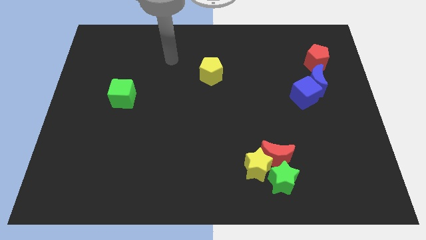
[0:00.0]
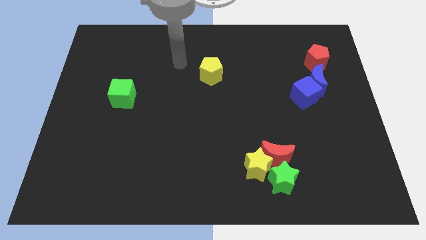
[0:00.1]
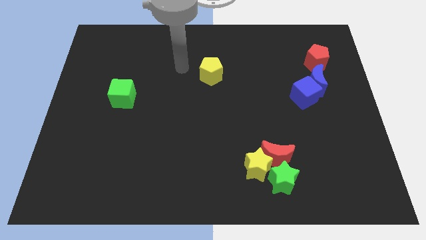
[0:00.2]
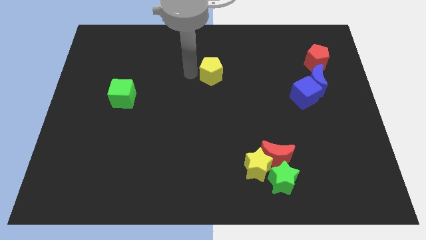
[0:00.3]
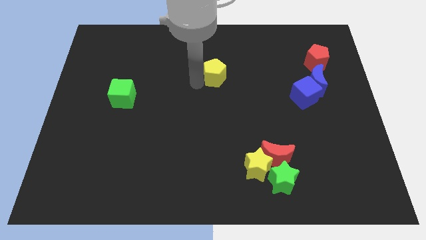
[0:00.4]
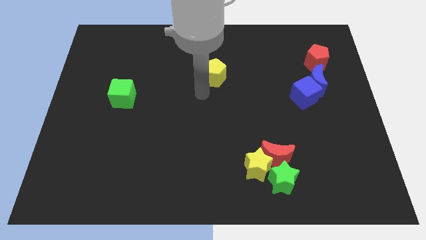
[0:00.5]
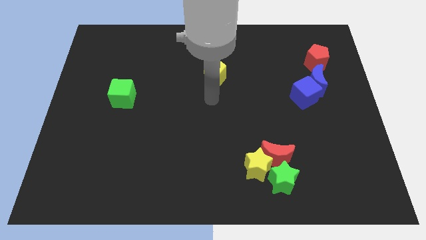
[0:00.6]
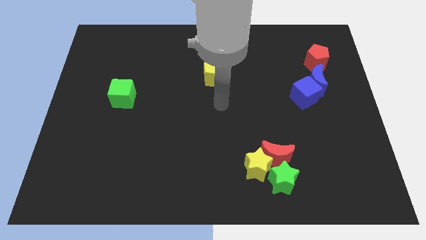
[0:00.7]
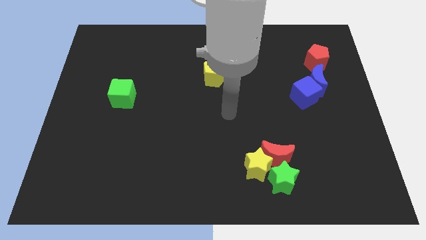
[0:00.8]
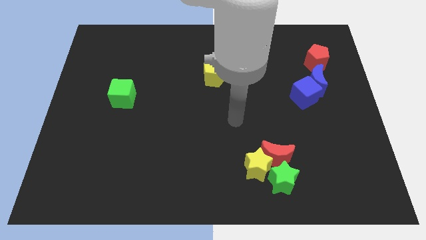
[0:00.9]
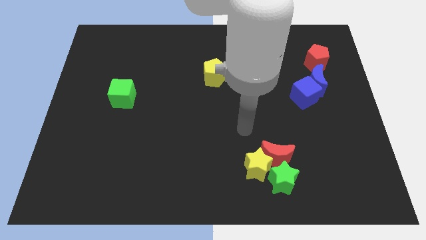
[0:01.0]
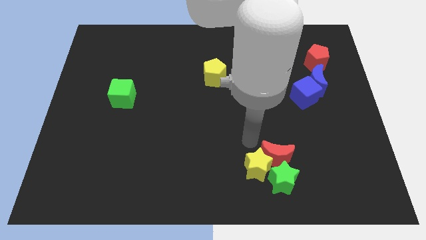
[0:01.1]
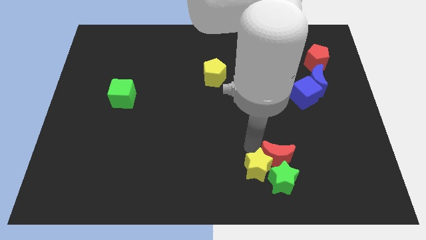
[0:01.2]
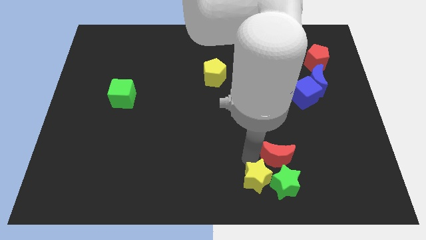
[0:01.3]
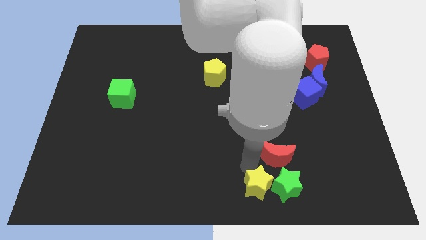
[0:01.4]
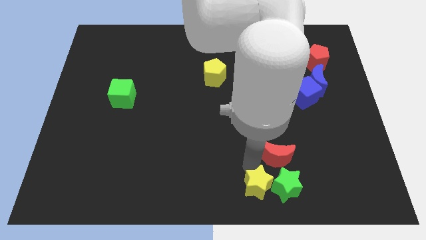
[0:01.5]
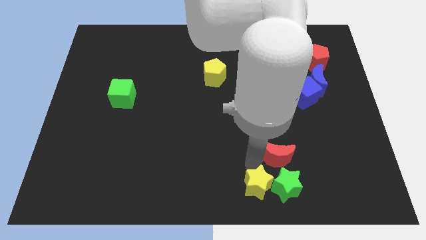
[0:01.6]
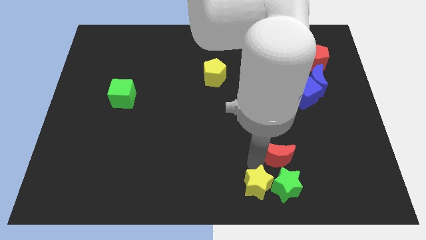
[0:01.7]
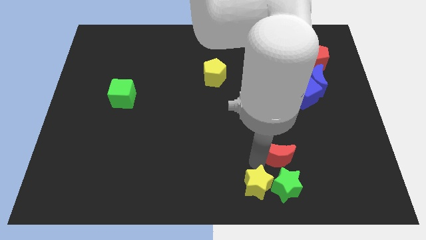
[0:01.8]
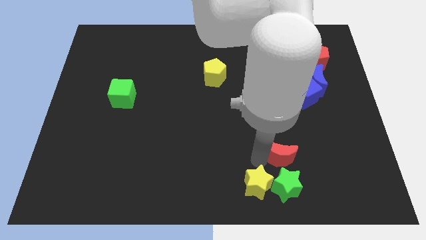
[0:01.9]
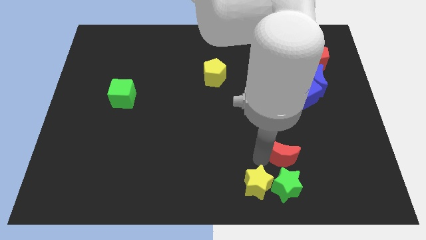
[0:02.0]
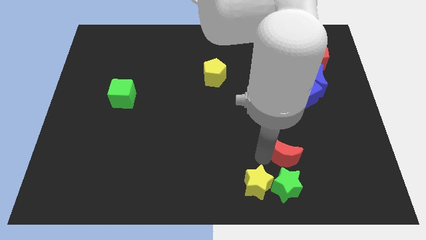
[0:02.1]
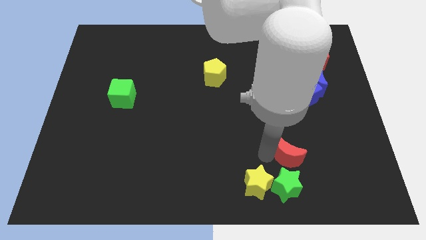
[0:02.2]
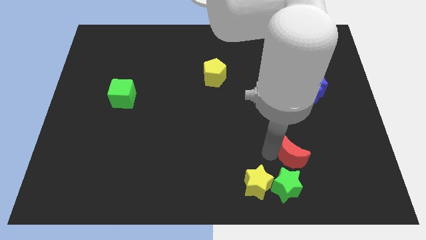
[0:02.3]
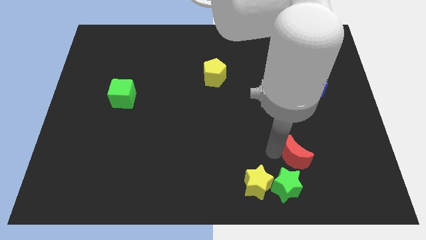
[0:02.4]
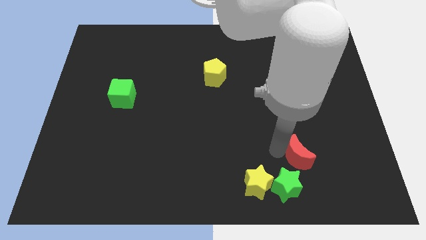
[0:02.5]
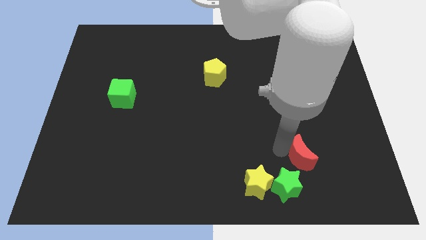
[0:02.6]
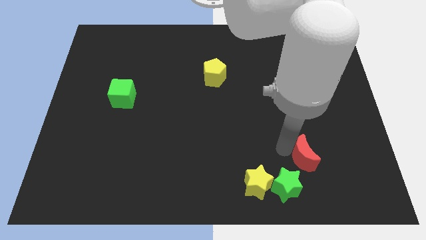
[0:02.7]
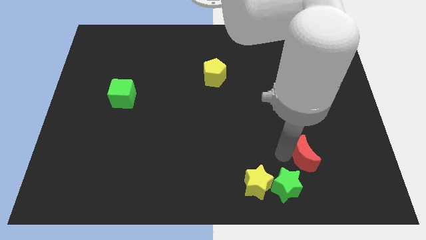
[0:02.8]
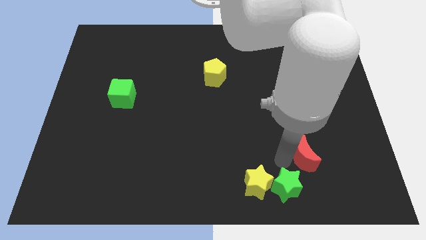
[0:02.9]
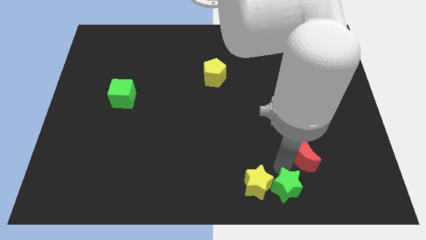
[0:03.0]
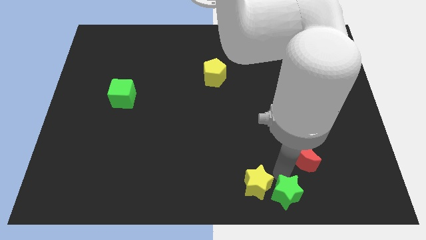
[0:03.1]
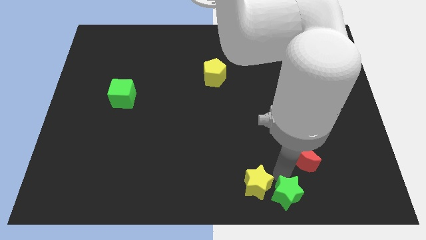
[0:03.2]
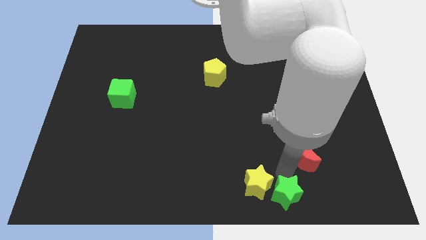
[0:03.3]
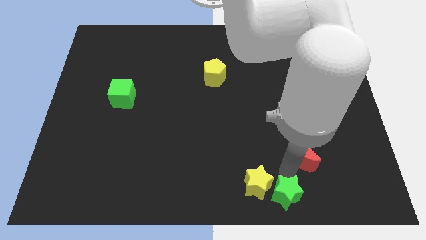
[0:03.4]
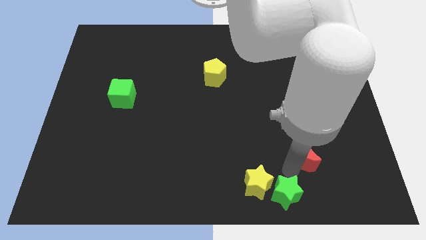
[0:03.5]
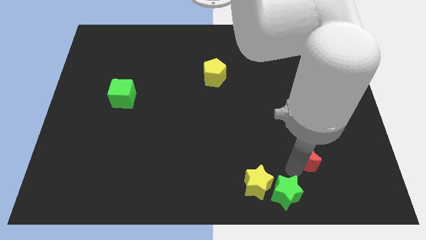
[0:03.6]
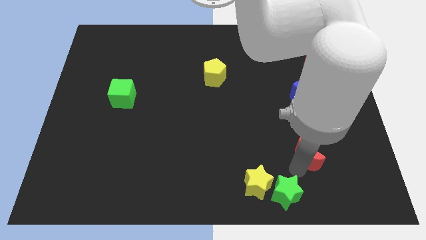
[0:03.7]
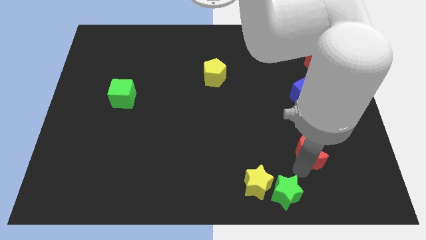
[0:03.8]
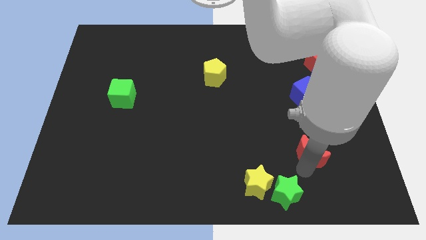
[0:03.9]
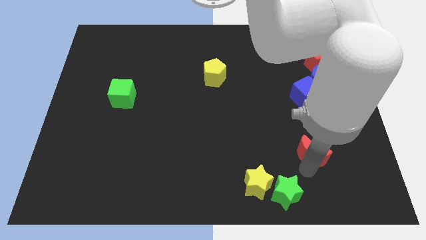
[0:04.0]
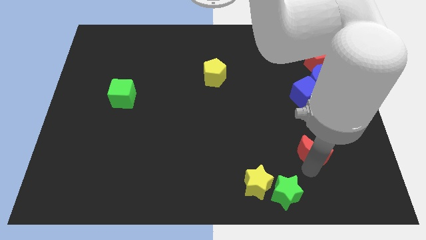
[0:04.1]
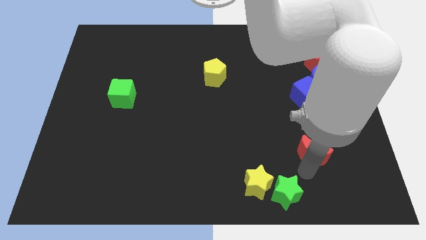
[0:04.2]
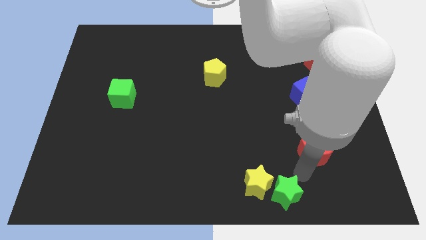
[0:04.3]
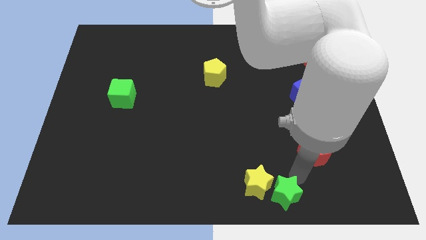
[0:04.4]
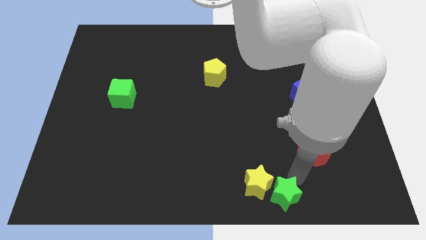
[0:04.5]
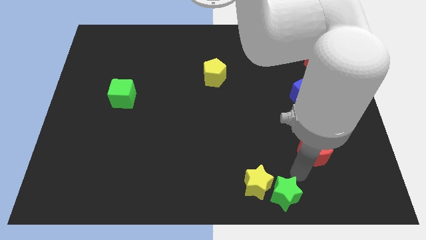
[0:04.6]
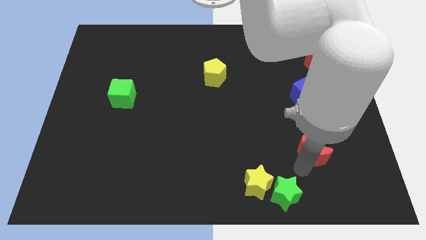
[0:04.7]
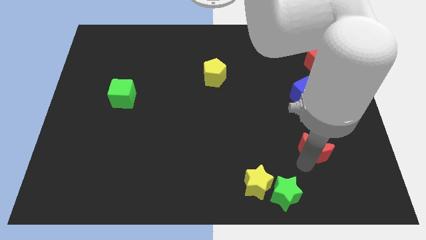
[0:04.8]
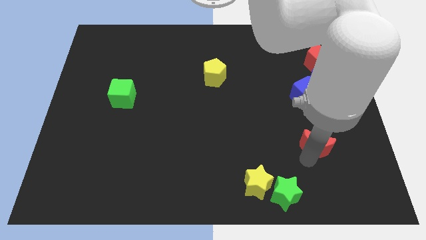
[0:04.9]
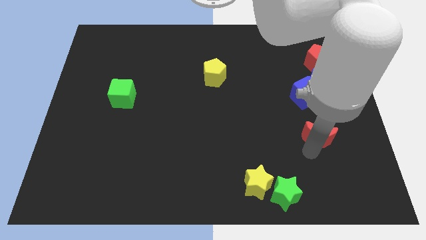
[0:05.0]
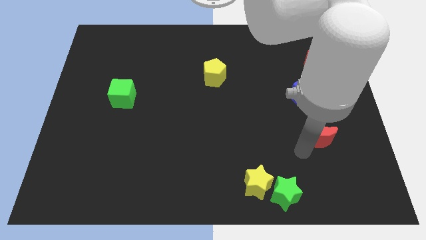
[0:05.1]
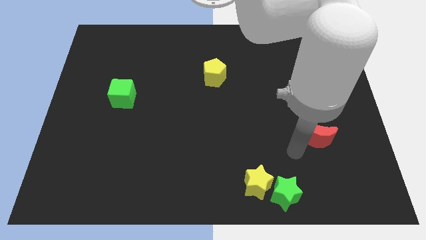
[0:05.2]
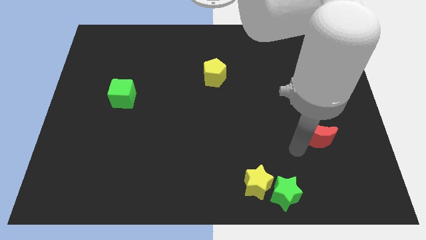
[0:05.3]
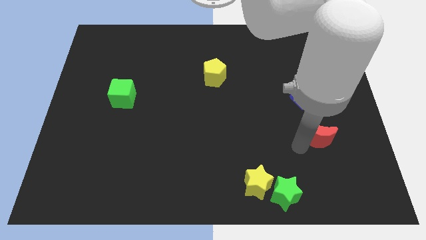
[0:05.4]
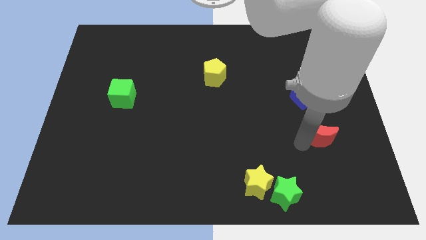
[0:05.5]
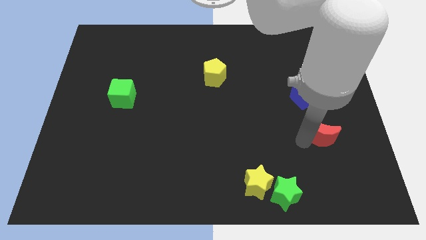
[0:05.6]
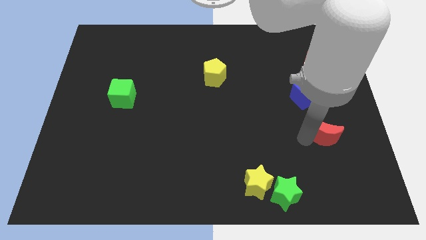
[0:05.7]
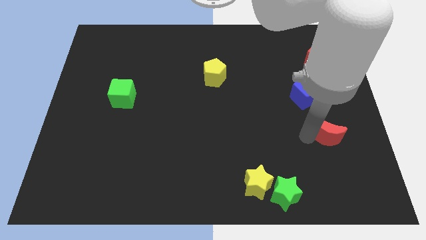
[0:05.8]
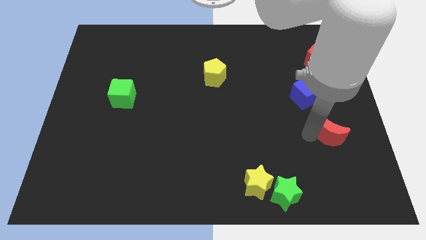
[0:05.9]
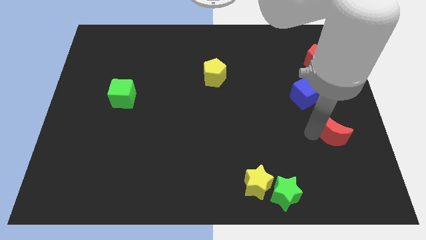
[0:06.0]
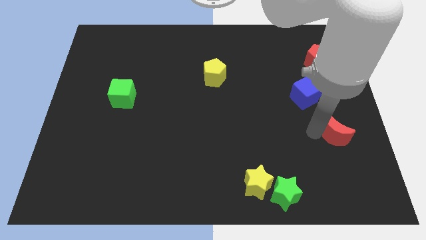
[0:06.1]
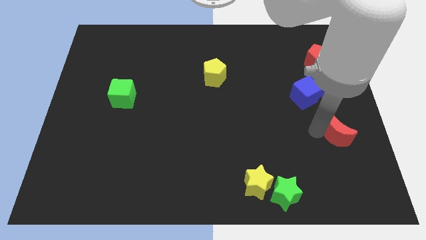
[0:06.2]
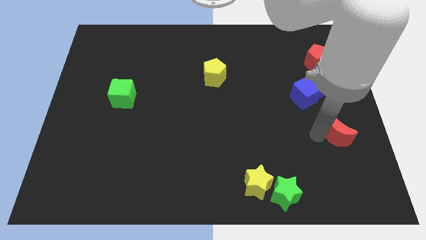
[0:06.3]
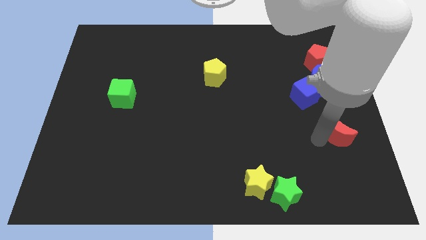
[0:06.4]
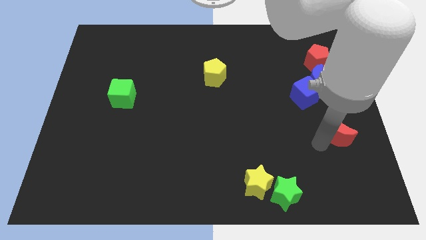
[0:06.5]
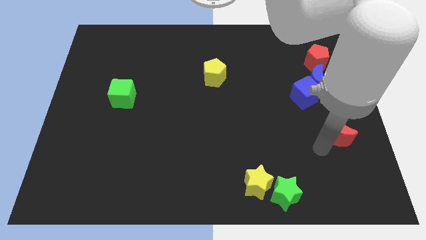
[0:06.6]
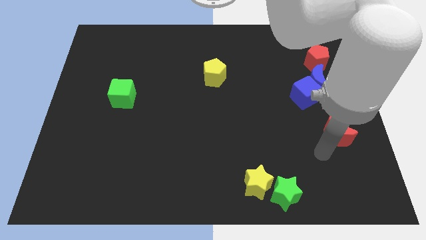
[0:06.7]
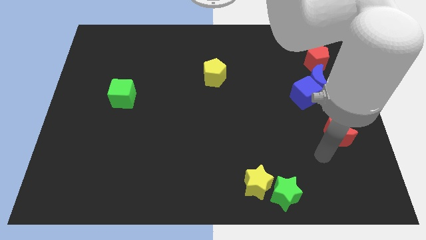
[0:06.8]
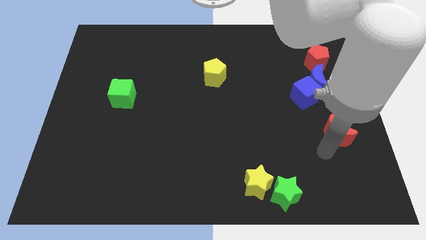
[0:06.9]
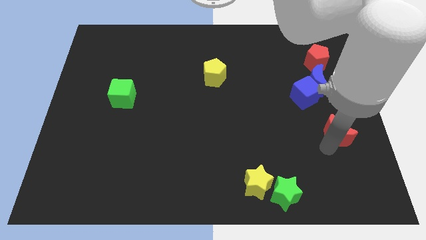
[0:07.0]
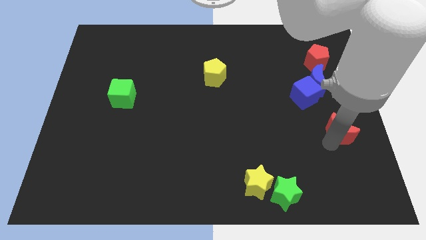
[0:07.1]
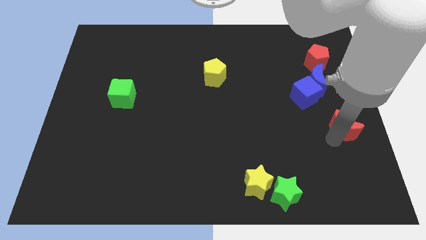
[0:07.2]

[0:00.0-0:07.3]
push the red moon to the right side
